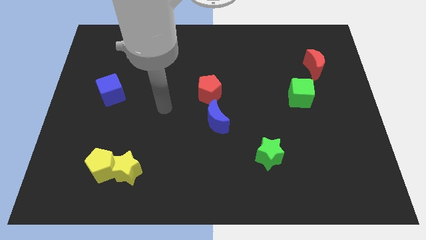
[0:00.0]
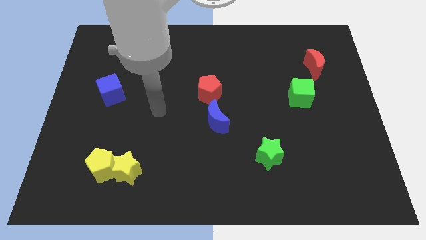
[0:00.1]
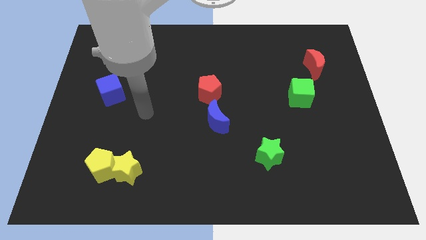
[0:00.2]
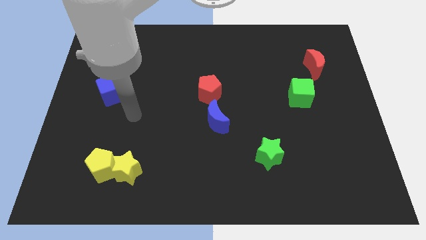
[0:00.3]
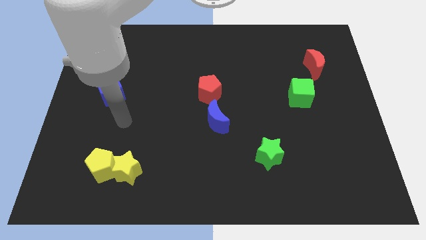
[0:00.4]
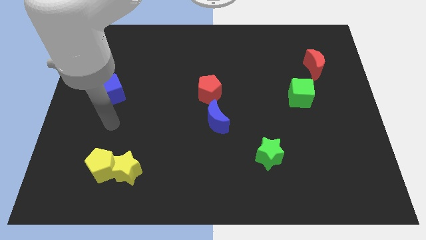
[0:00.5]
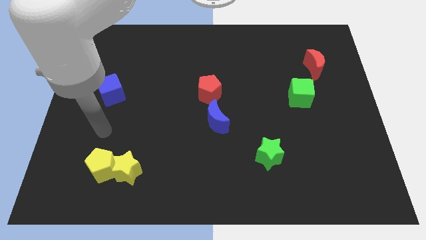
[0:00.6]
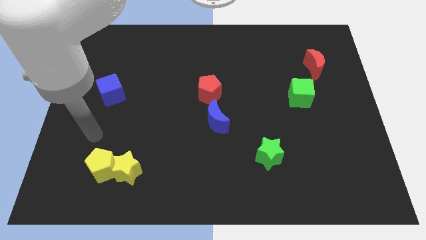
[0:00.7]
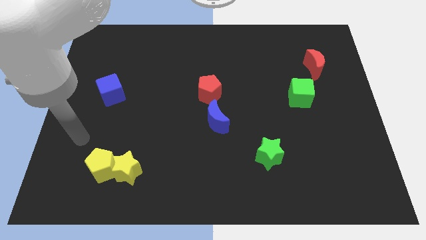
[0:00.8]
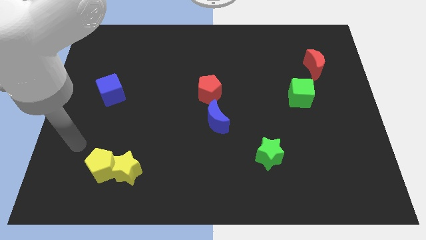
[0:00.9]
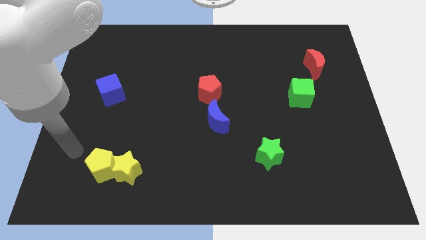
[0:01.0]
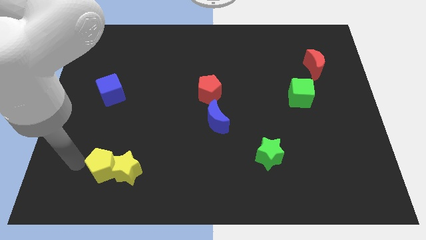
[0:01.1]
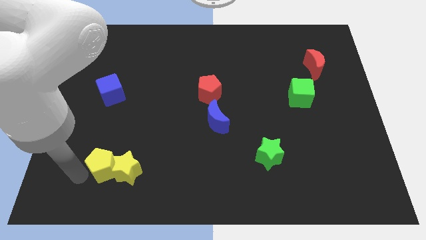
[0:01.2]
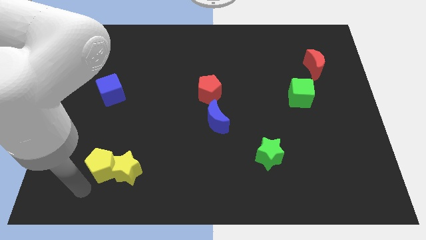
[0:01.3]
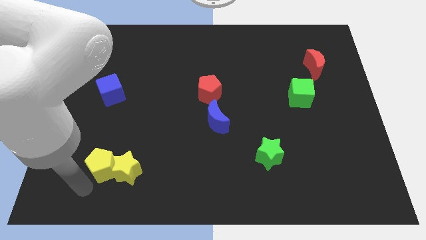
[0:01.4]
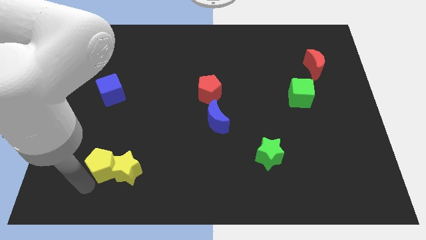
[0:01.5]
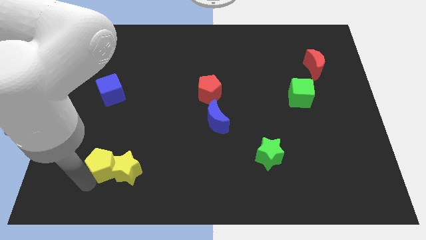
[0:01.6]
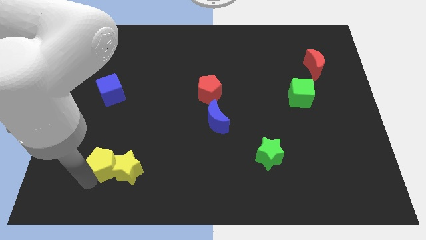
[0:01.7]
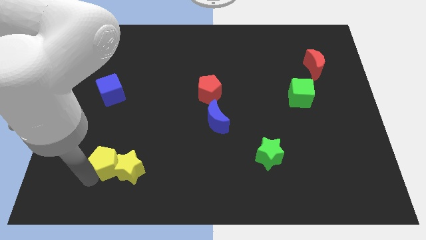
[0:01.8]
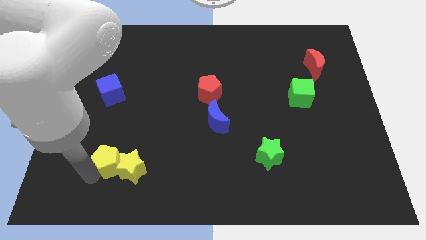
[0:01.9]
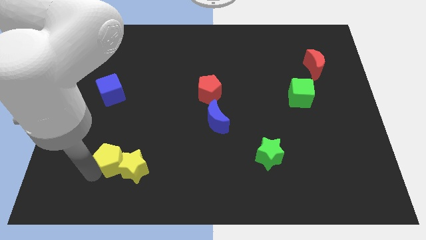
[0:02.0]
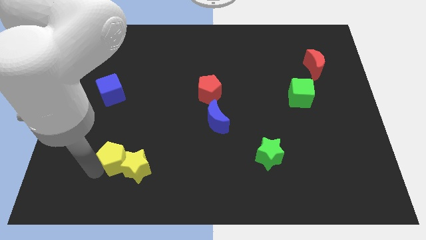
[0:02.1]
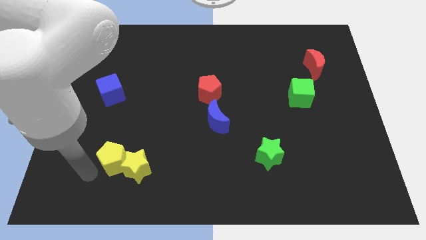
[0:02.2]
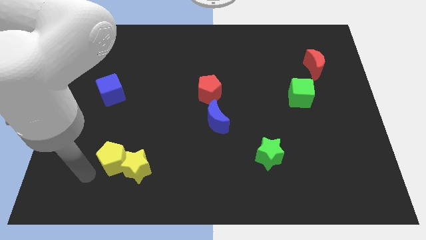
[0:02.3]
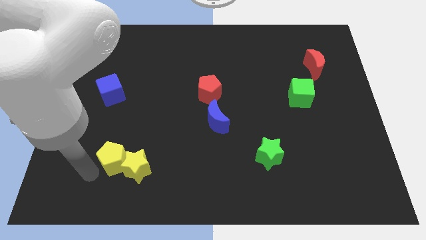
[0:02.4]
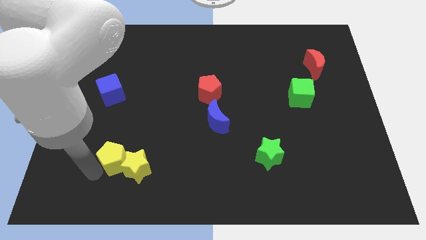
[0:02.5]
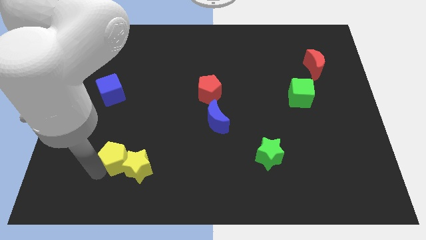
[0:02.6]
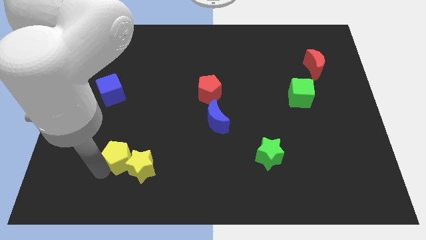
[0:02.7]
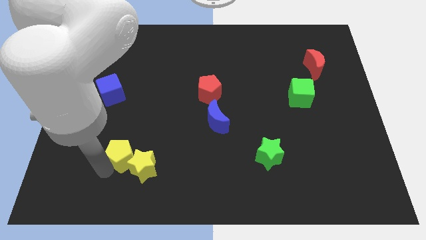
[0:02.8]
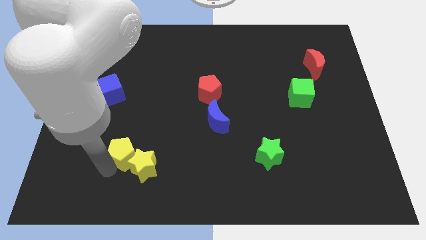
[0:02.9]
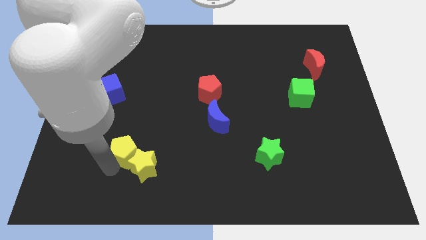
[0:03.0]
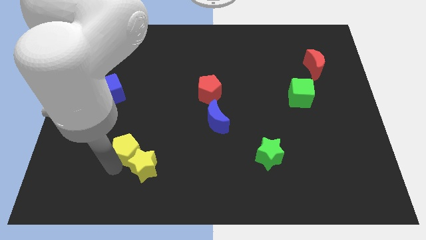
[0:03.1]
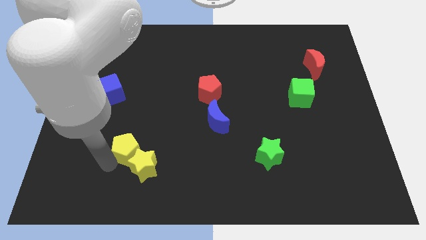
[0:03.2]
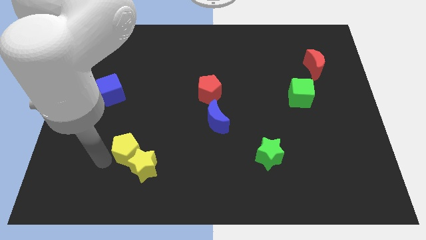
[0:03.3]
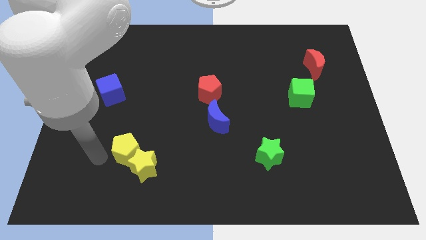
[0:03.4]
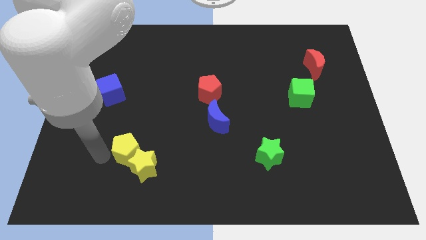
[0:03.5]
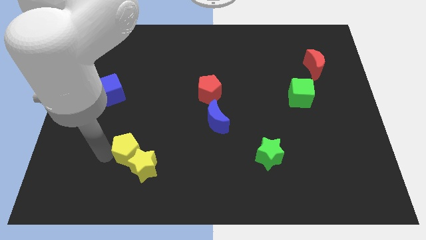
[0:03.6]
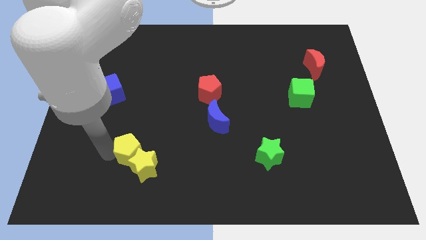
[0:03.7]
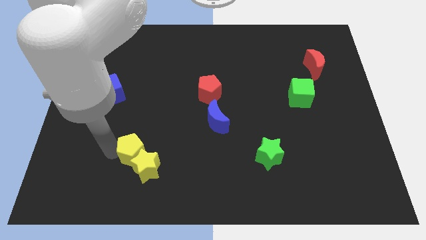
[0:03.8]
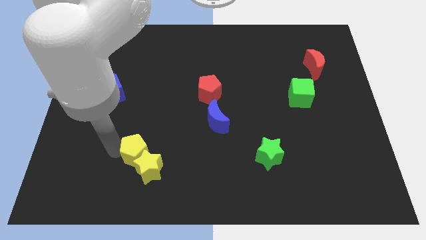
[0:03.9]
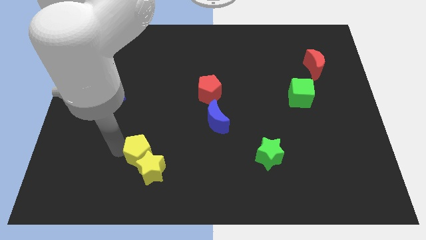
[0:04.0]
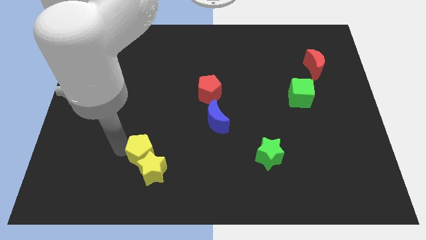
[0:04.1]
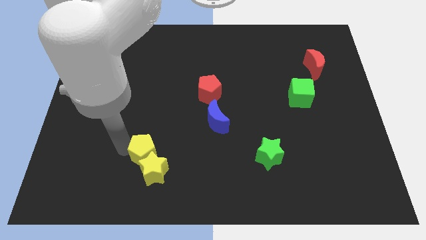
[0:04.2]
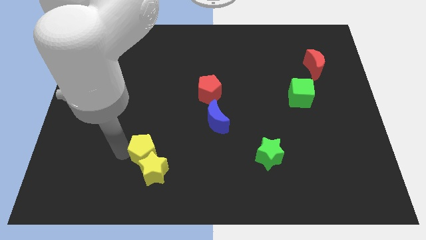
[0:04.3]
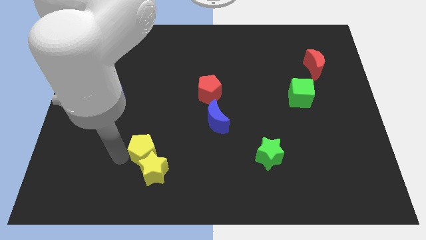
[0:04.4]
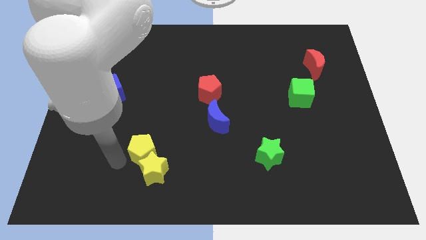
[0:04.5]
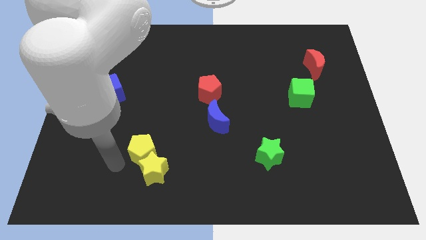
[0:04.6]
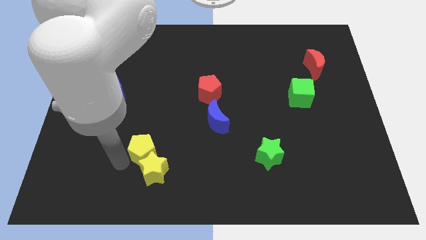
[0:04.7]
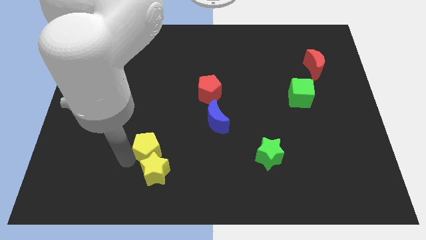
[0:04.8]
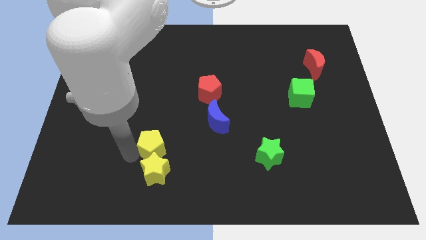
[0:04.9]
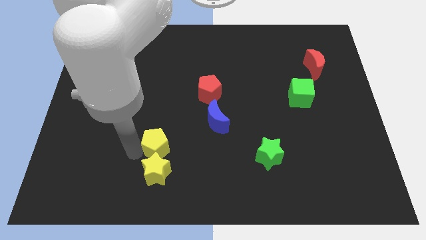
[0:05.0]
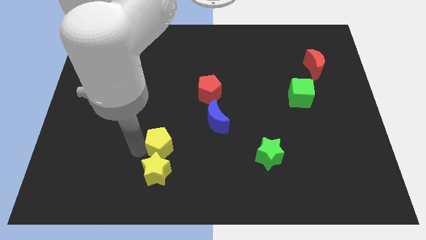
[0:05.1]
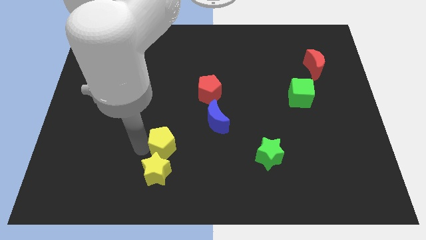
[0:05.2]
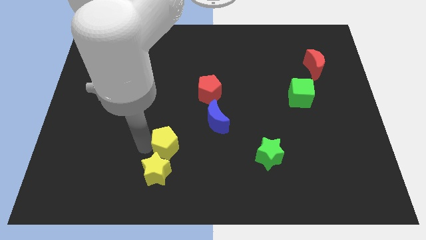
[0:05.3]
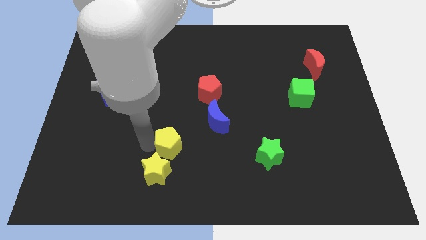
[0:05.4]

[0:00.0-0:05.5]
slide the yellow pentagon diagonally down and to the left of the blue moon

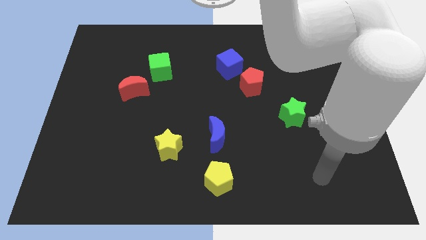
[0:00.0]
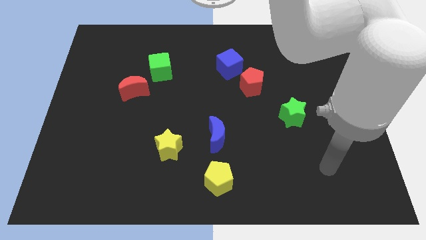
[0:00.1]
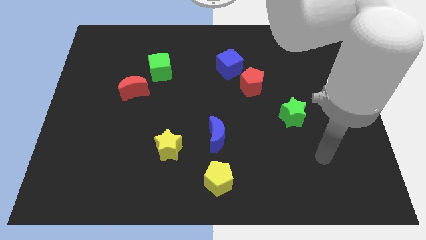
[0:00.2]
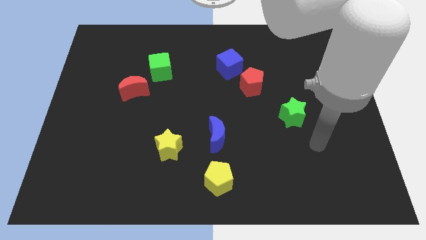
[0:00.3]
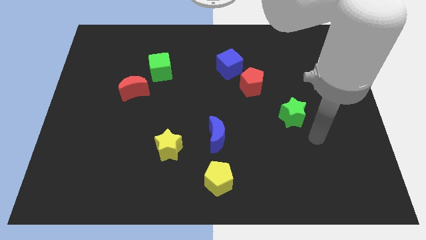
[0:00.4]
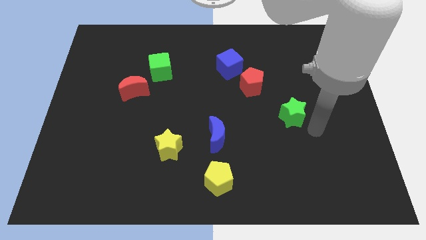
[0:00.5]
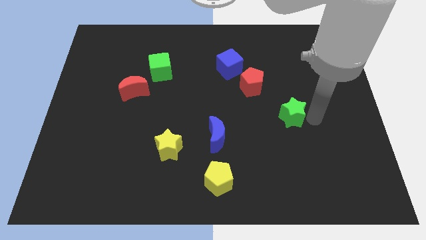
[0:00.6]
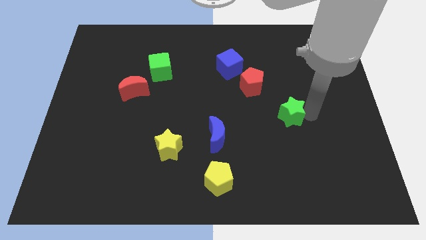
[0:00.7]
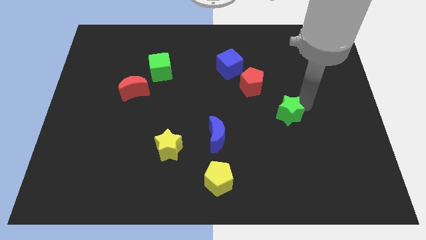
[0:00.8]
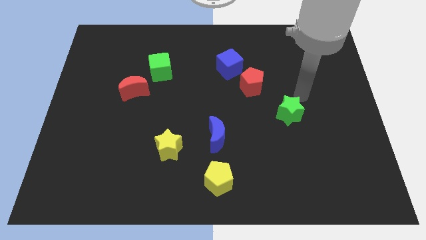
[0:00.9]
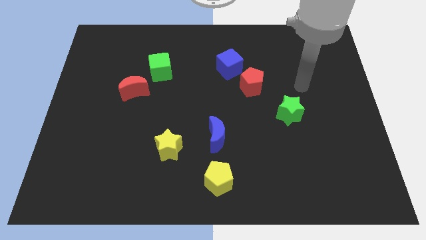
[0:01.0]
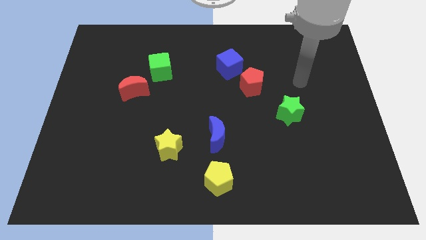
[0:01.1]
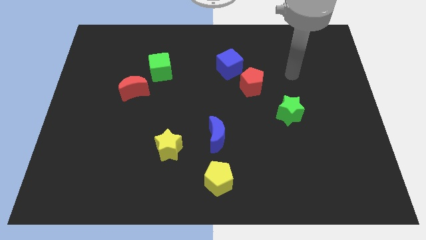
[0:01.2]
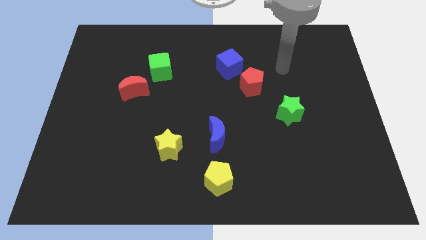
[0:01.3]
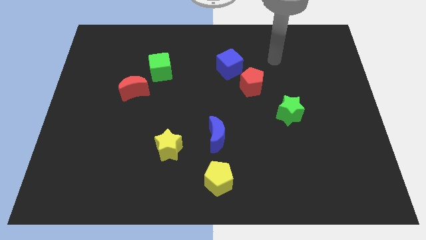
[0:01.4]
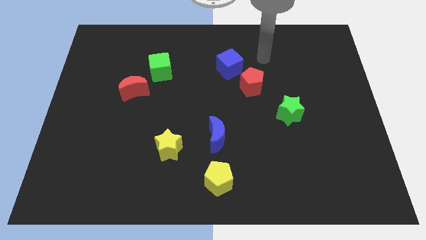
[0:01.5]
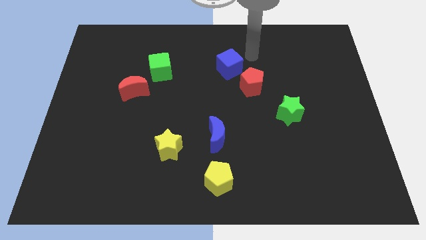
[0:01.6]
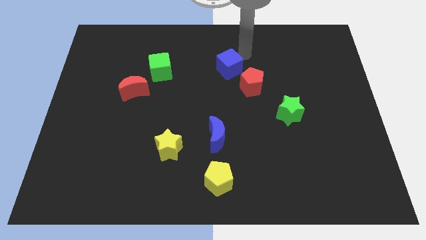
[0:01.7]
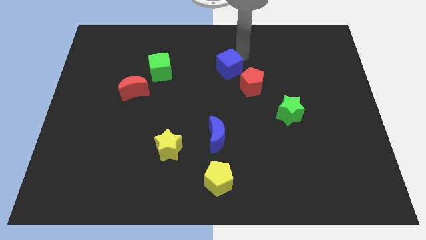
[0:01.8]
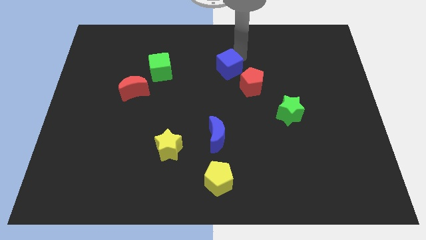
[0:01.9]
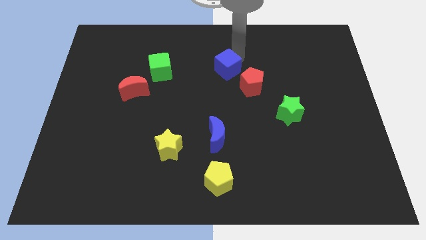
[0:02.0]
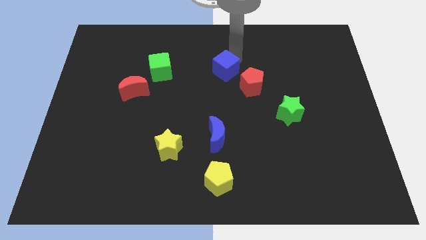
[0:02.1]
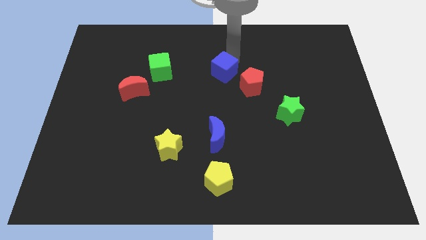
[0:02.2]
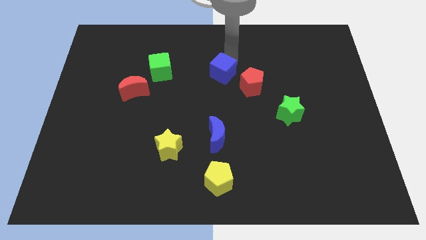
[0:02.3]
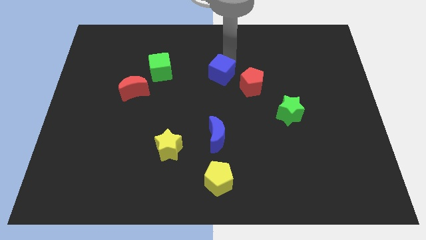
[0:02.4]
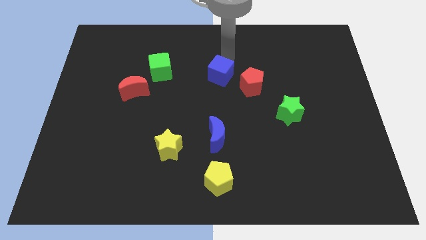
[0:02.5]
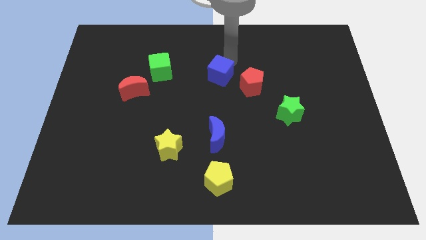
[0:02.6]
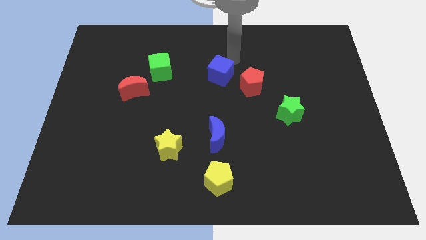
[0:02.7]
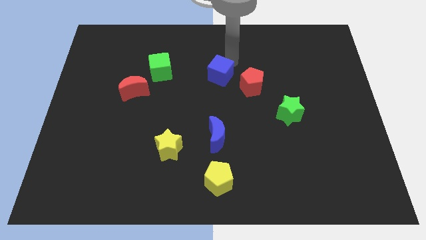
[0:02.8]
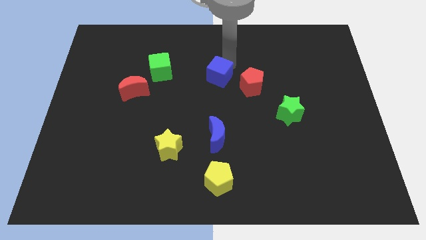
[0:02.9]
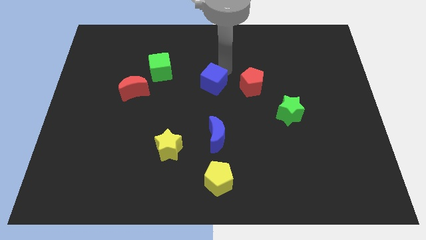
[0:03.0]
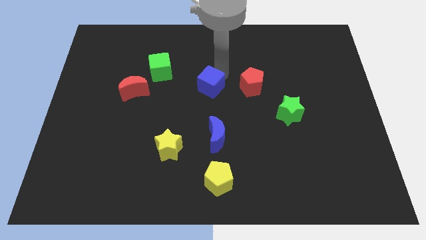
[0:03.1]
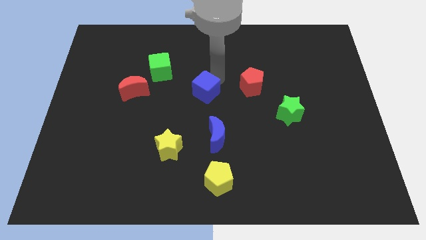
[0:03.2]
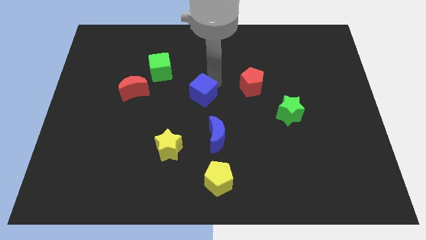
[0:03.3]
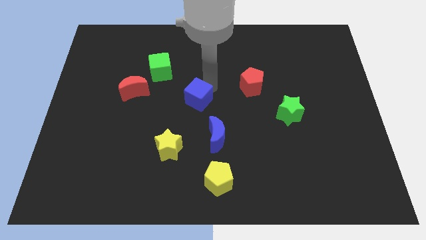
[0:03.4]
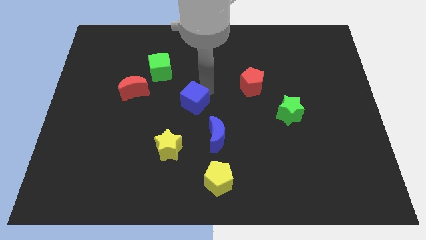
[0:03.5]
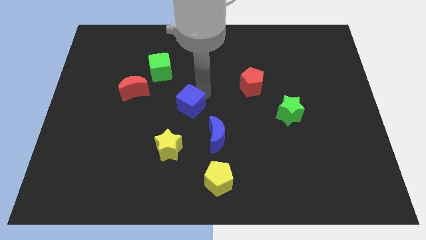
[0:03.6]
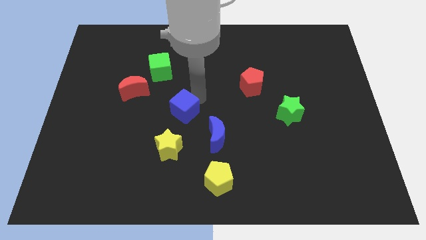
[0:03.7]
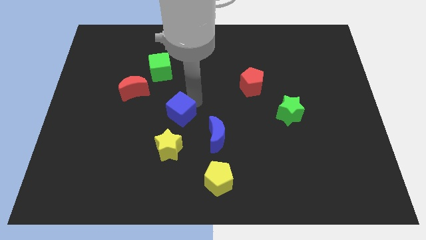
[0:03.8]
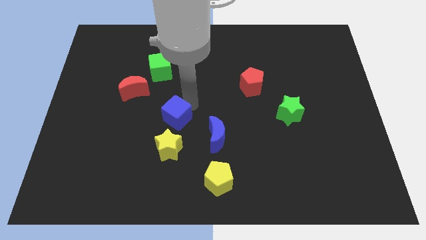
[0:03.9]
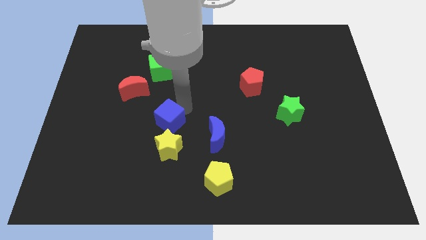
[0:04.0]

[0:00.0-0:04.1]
push the blue cube left of the blue moon
